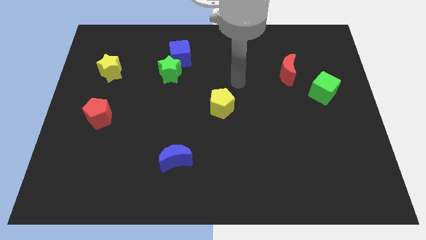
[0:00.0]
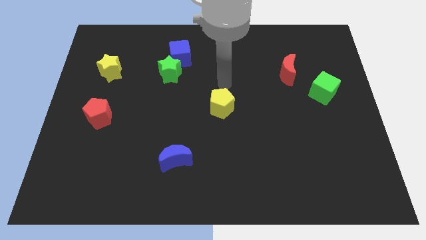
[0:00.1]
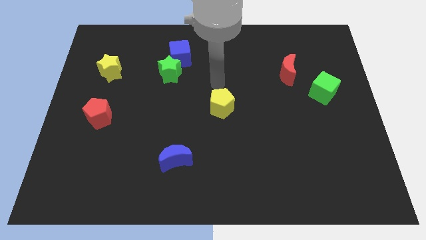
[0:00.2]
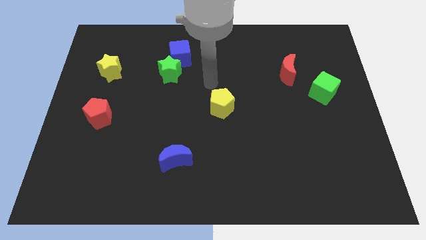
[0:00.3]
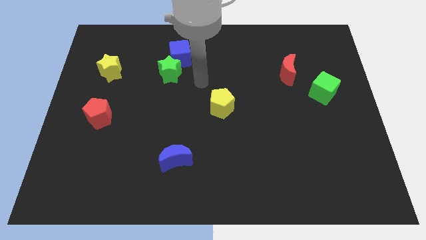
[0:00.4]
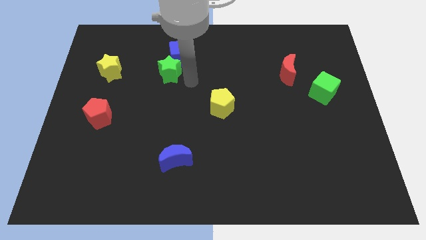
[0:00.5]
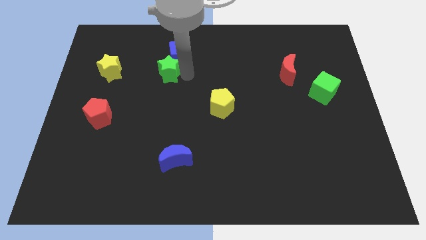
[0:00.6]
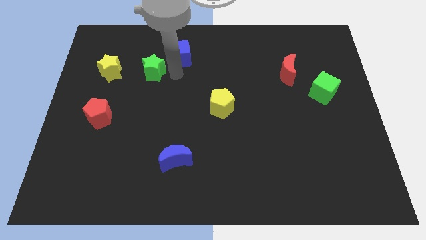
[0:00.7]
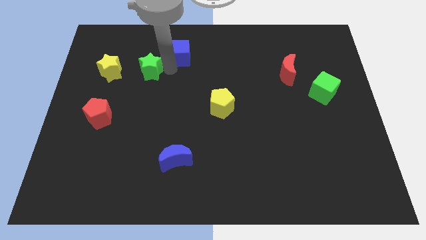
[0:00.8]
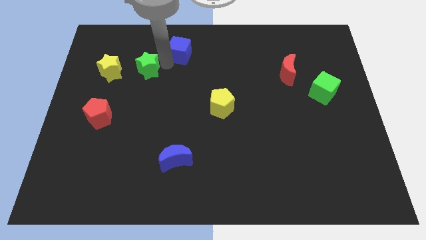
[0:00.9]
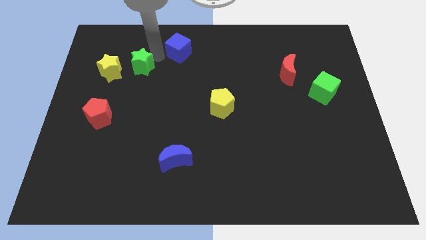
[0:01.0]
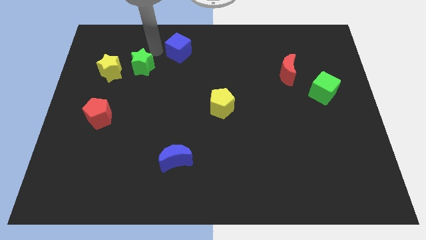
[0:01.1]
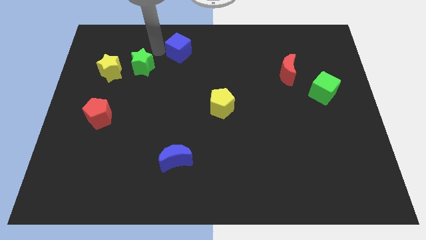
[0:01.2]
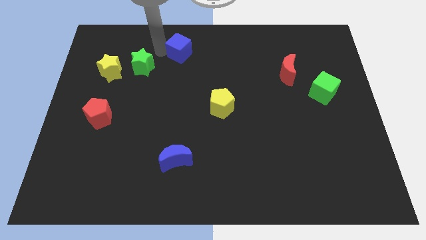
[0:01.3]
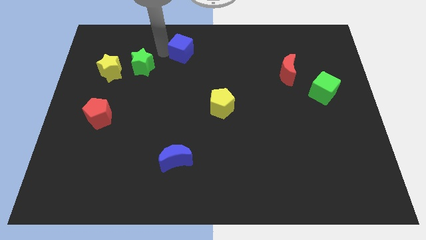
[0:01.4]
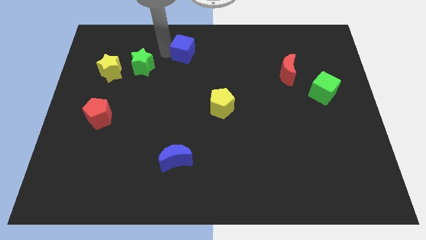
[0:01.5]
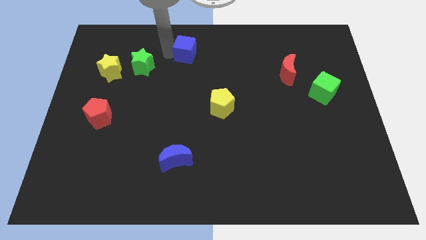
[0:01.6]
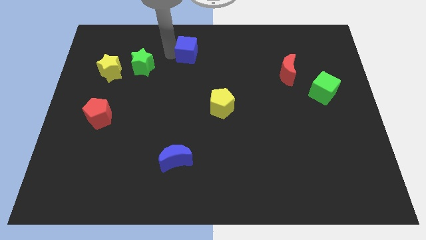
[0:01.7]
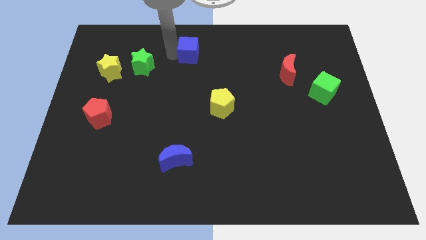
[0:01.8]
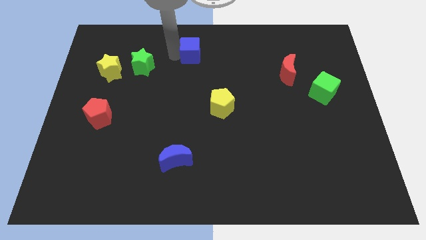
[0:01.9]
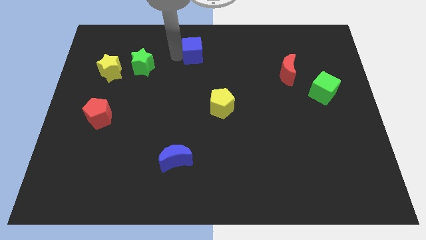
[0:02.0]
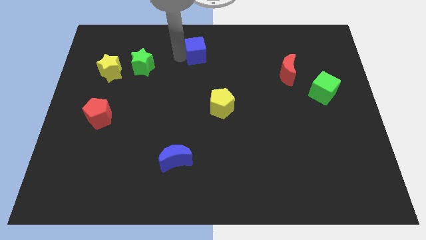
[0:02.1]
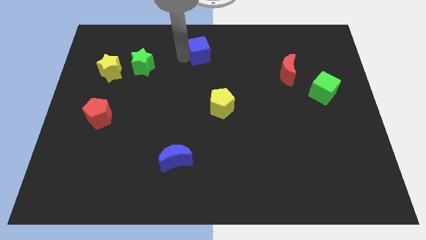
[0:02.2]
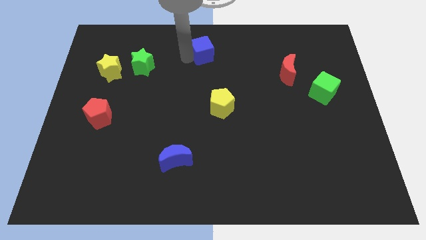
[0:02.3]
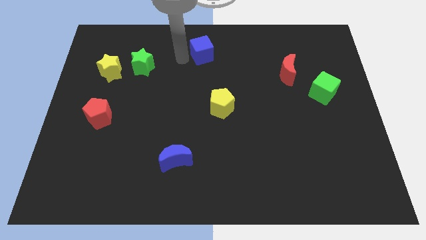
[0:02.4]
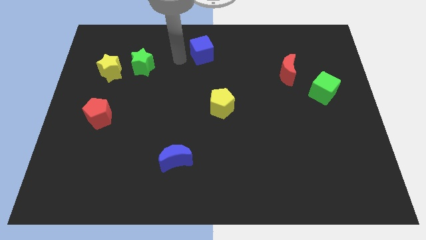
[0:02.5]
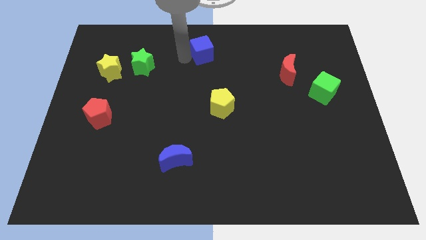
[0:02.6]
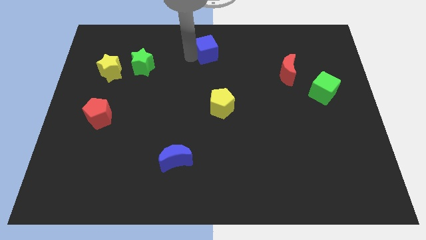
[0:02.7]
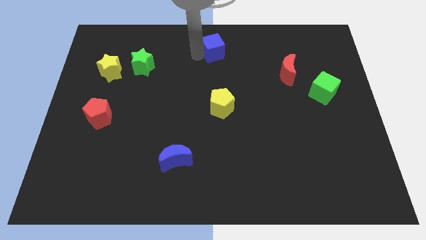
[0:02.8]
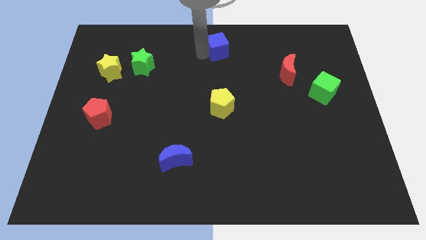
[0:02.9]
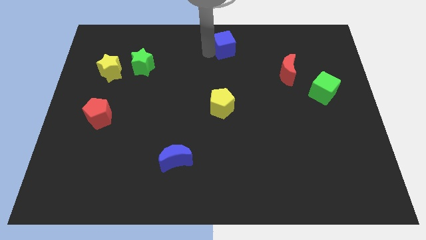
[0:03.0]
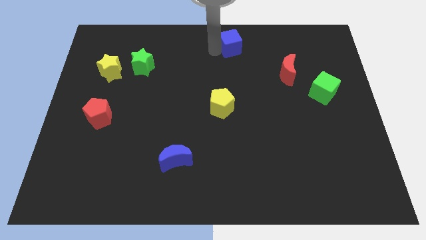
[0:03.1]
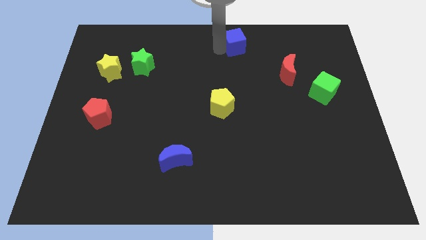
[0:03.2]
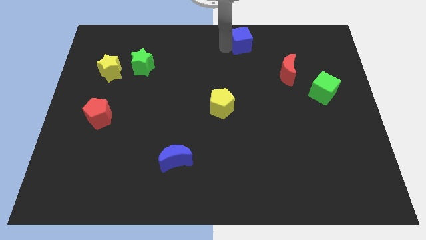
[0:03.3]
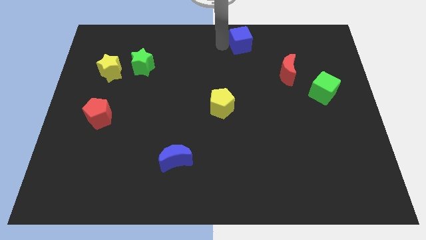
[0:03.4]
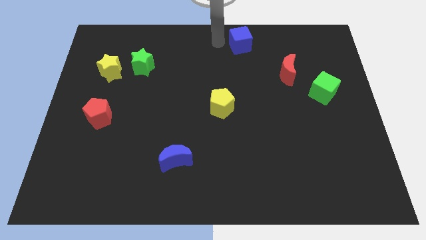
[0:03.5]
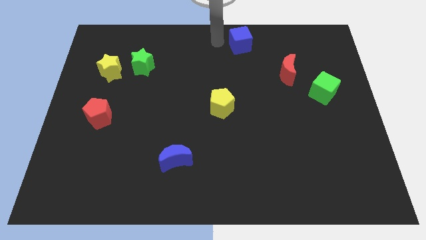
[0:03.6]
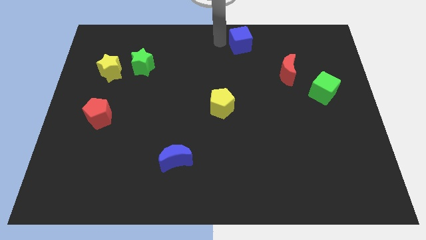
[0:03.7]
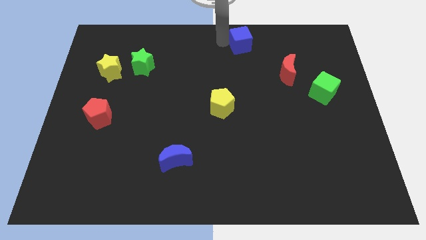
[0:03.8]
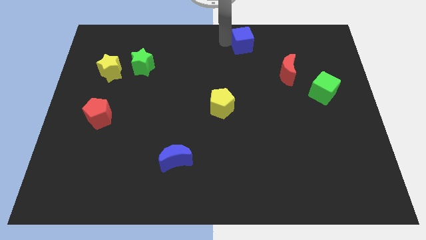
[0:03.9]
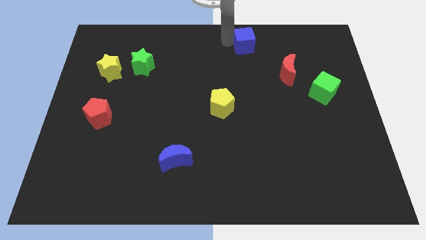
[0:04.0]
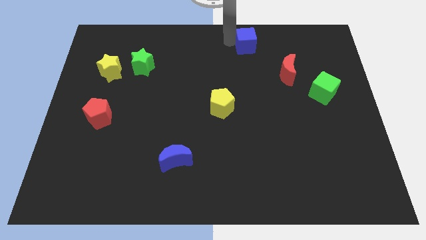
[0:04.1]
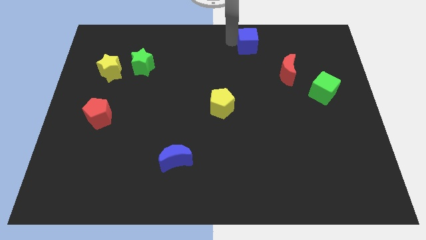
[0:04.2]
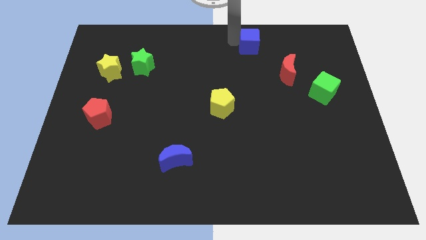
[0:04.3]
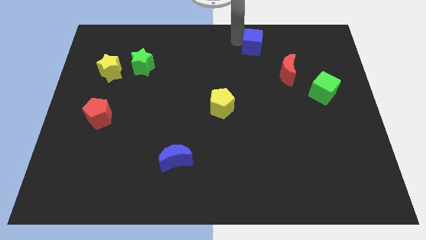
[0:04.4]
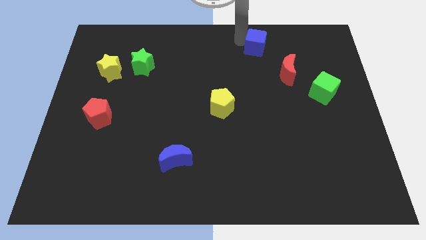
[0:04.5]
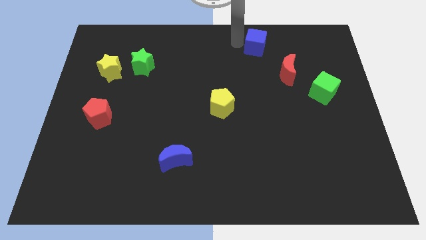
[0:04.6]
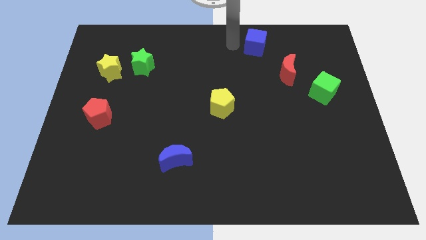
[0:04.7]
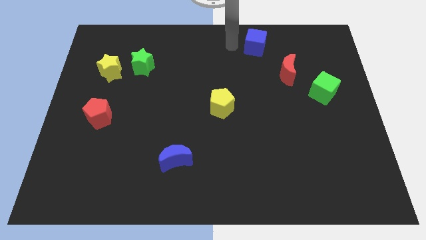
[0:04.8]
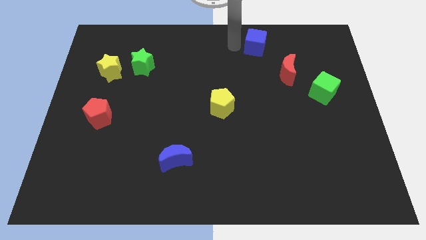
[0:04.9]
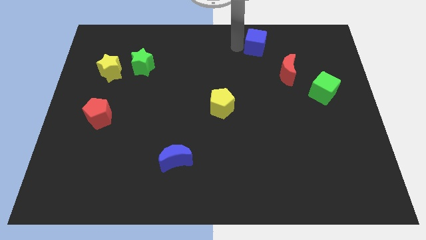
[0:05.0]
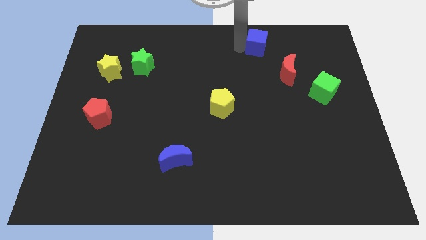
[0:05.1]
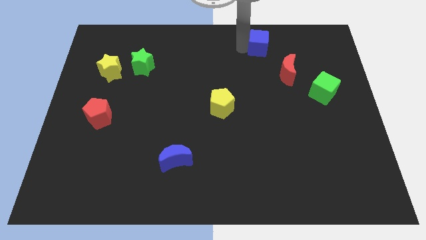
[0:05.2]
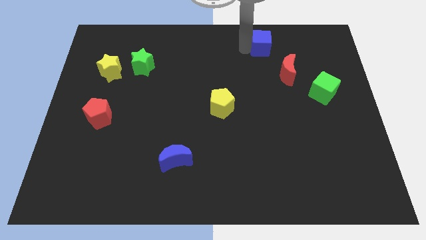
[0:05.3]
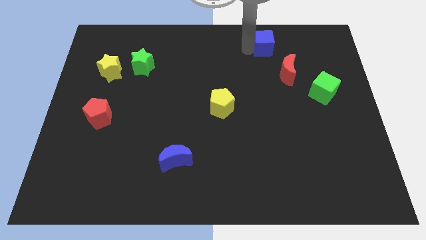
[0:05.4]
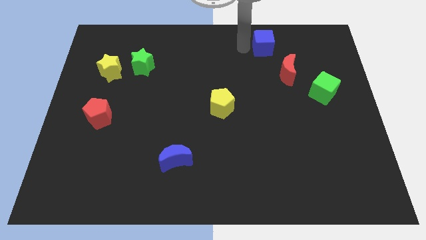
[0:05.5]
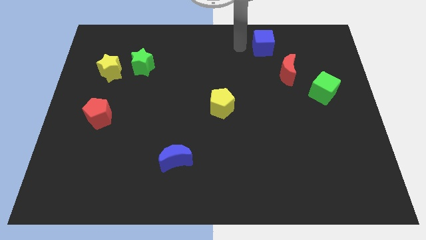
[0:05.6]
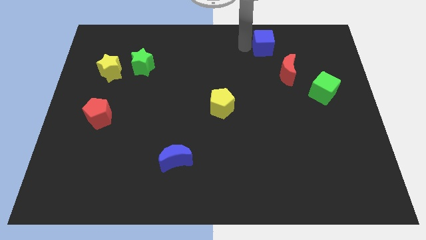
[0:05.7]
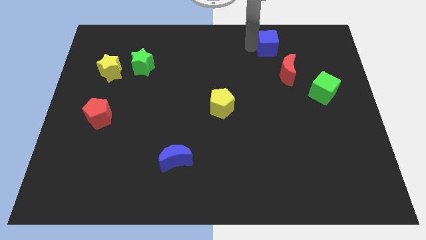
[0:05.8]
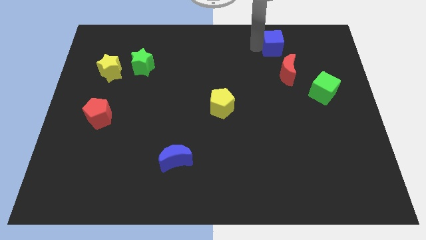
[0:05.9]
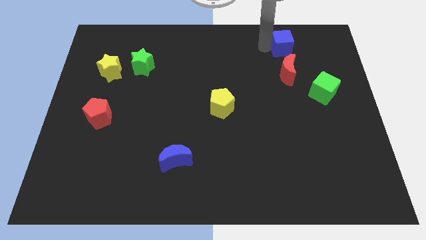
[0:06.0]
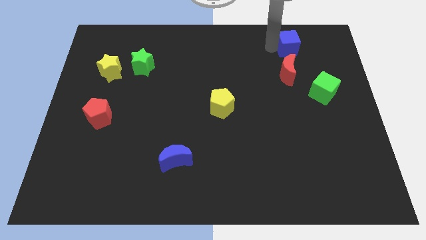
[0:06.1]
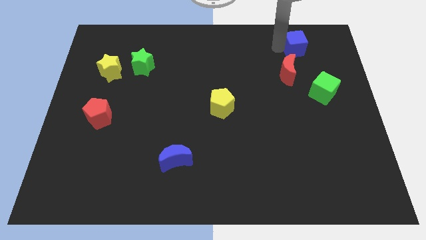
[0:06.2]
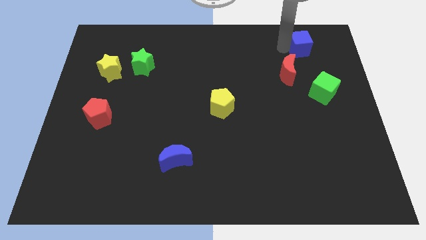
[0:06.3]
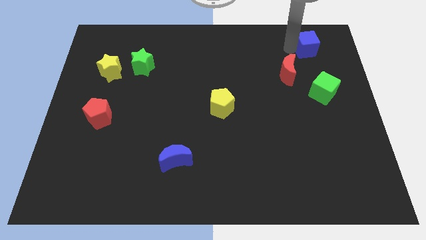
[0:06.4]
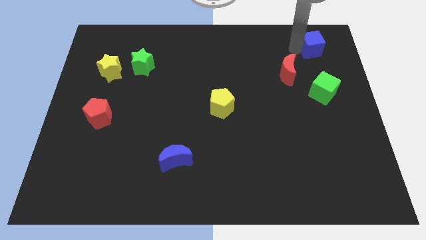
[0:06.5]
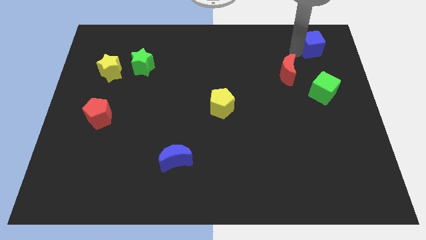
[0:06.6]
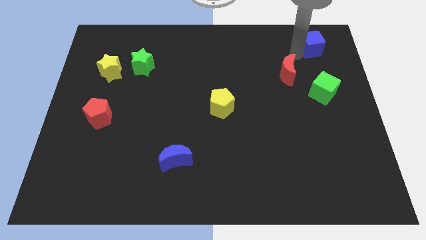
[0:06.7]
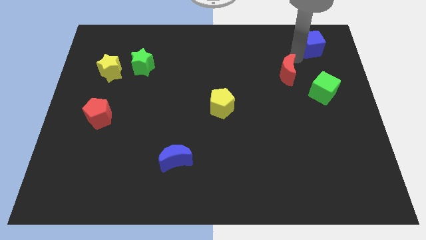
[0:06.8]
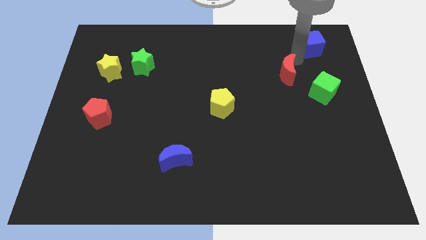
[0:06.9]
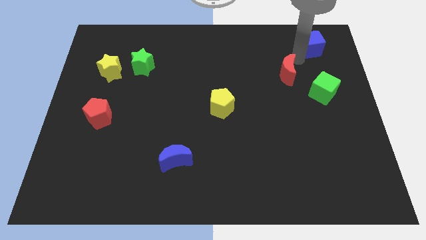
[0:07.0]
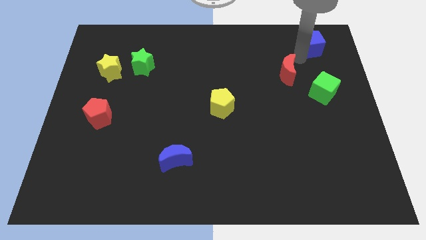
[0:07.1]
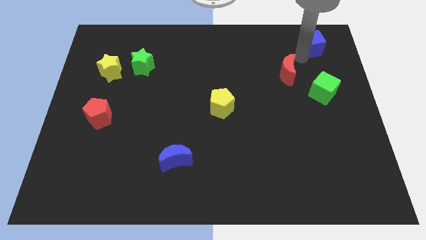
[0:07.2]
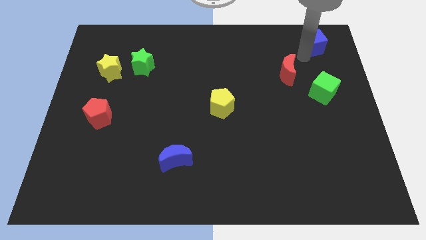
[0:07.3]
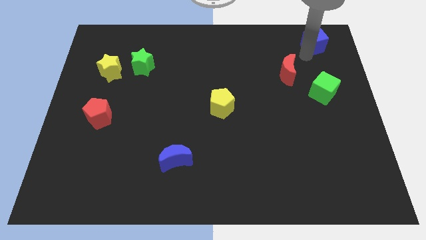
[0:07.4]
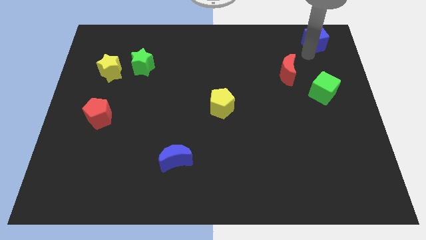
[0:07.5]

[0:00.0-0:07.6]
put the blue cube to the top right of the board
